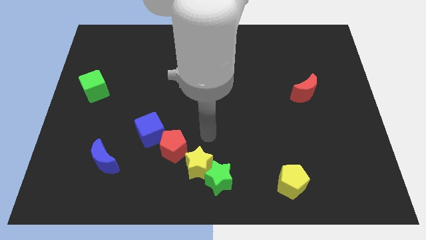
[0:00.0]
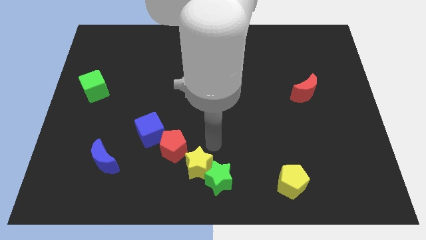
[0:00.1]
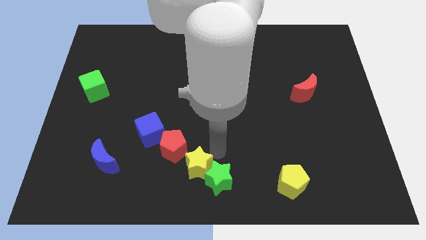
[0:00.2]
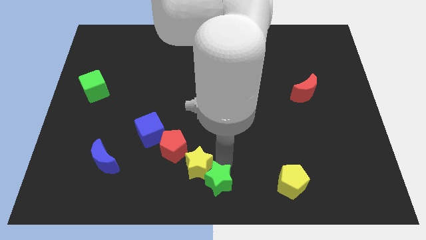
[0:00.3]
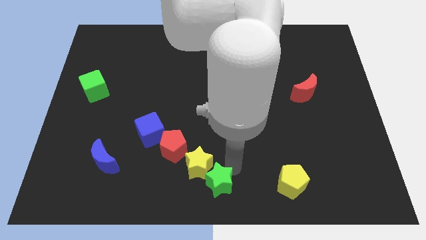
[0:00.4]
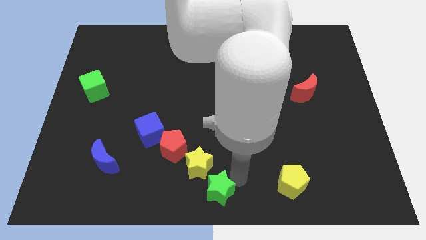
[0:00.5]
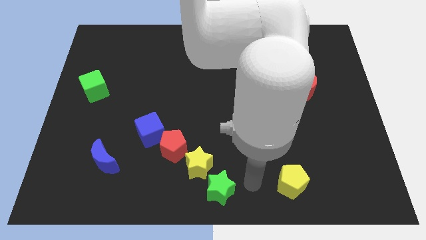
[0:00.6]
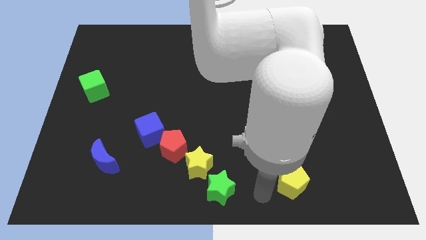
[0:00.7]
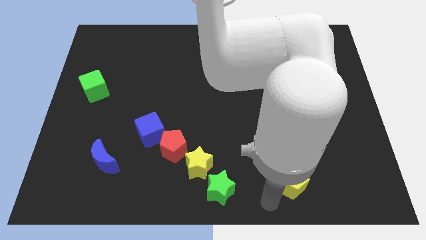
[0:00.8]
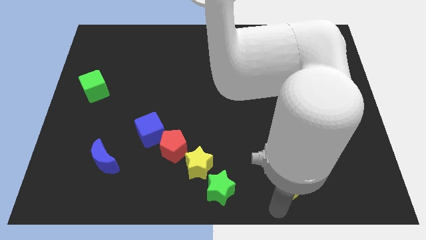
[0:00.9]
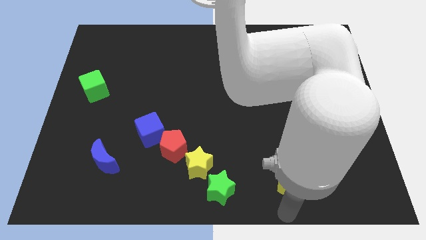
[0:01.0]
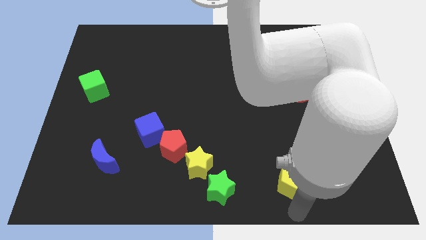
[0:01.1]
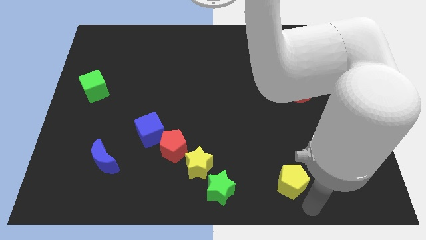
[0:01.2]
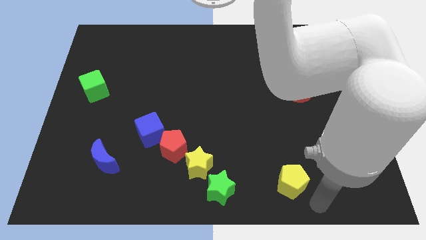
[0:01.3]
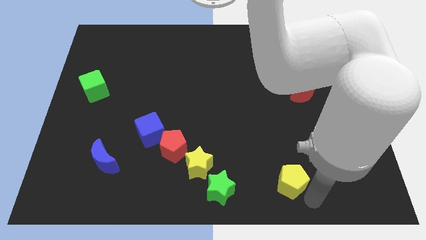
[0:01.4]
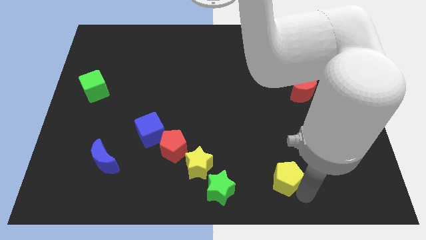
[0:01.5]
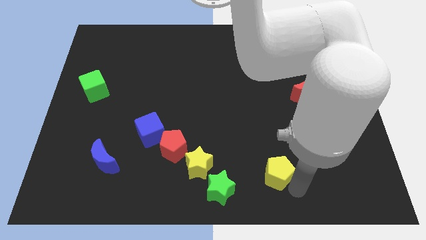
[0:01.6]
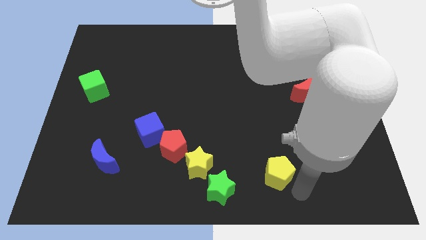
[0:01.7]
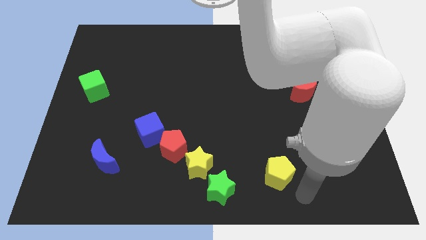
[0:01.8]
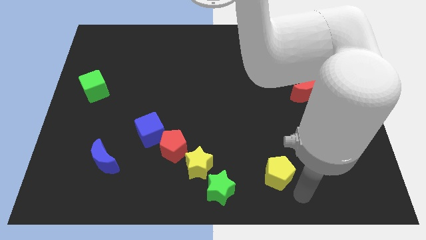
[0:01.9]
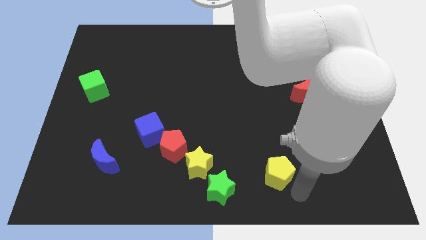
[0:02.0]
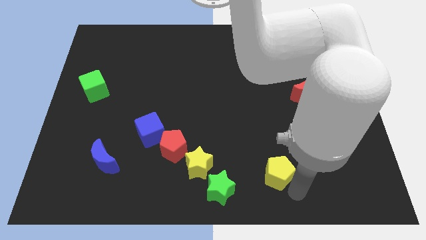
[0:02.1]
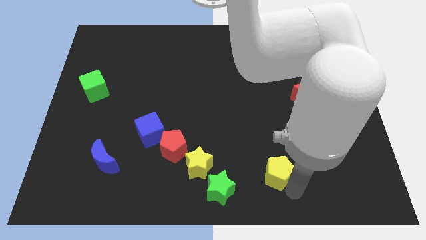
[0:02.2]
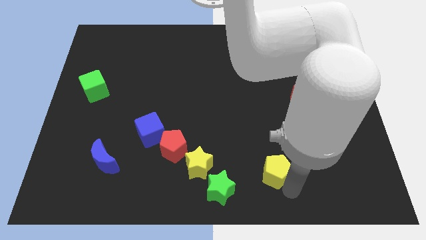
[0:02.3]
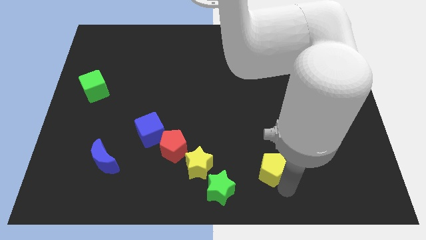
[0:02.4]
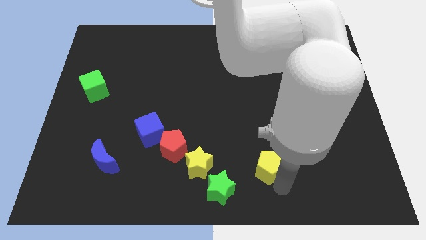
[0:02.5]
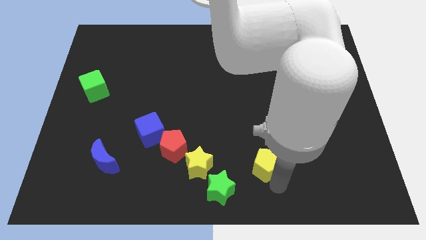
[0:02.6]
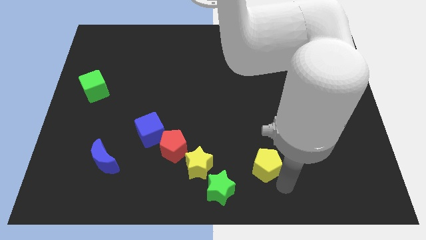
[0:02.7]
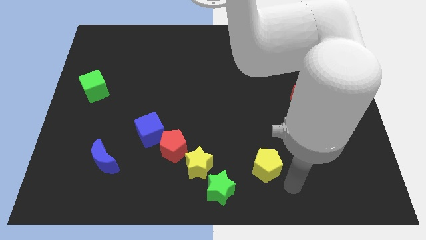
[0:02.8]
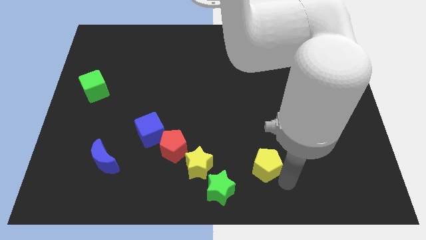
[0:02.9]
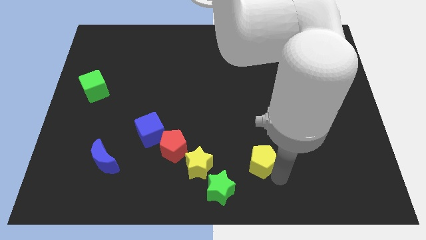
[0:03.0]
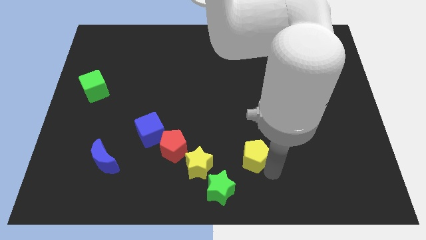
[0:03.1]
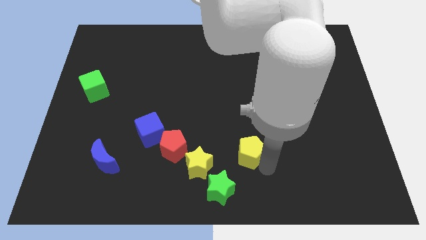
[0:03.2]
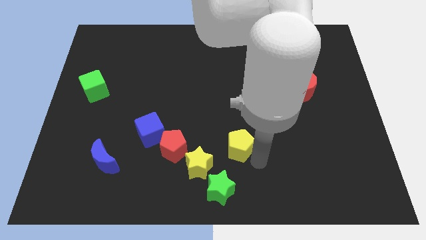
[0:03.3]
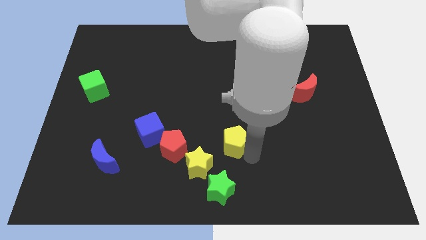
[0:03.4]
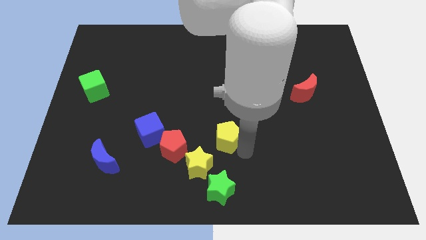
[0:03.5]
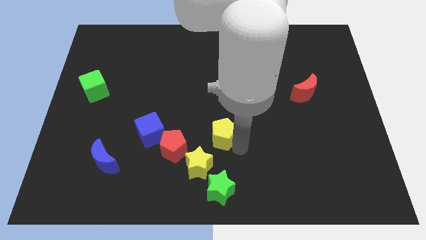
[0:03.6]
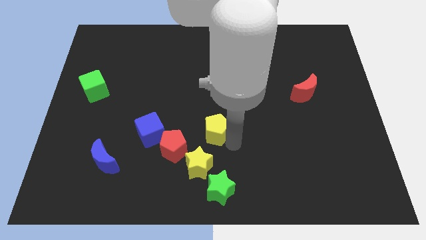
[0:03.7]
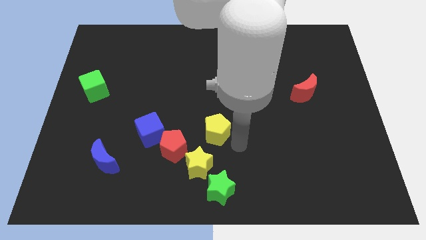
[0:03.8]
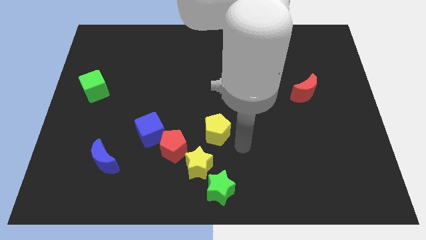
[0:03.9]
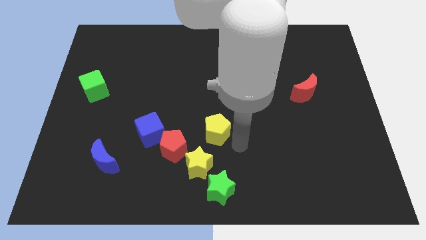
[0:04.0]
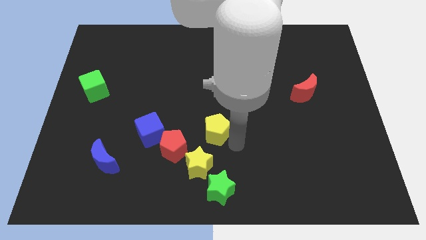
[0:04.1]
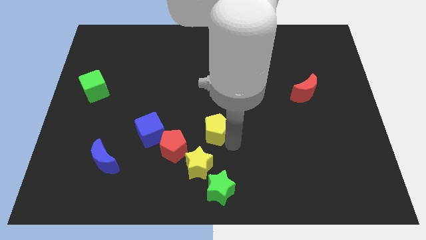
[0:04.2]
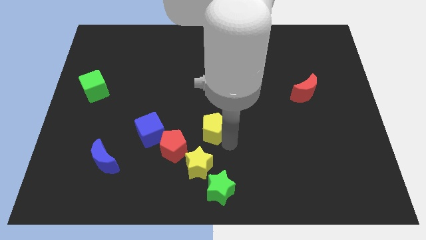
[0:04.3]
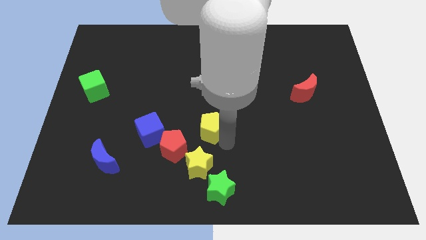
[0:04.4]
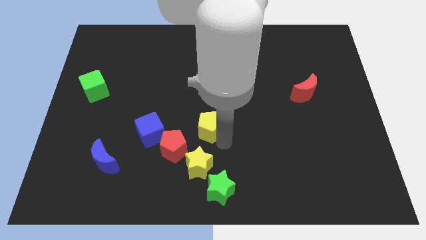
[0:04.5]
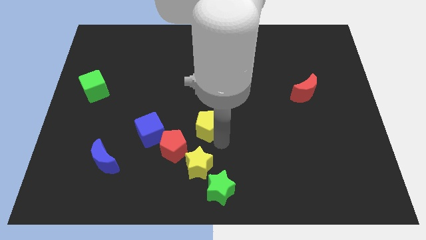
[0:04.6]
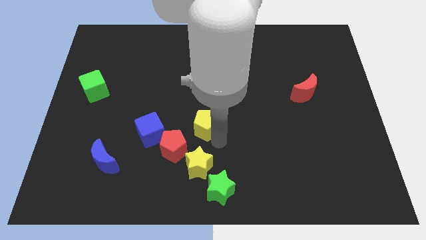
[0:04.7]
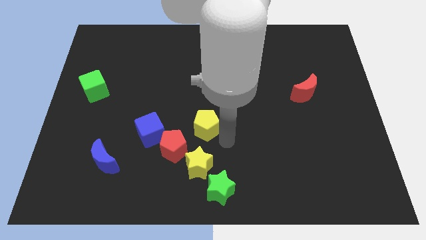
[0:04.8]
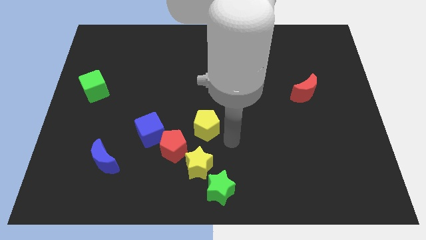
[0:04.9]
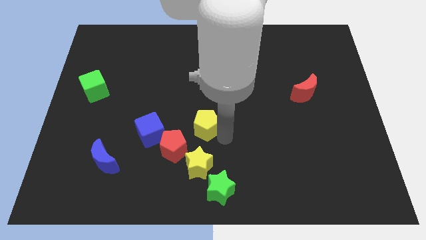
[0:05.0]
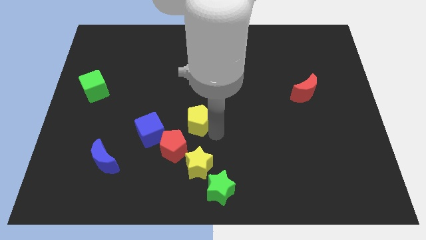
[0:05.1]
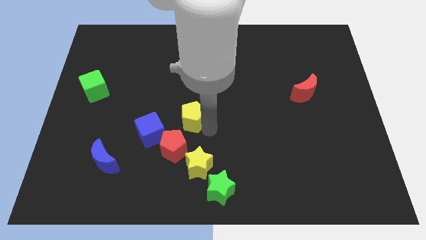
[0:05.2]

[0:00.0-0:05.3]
put the yellow pentagon to the top right of the blue cube

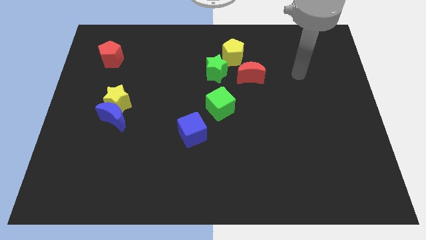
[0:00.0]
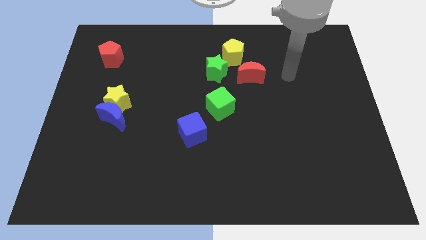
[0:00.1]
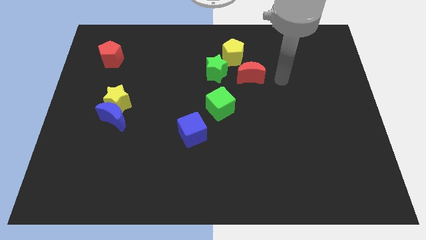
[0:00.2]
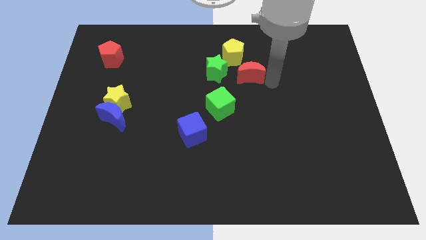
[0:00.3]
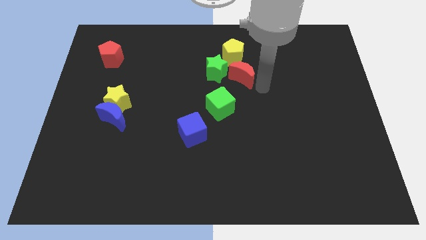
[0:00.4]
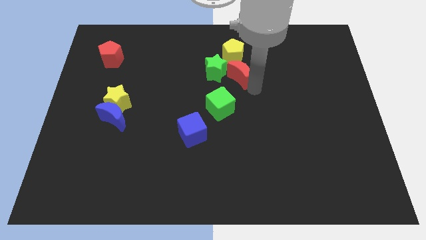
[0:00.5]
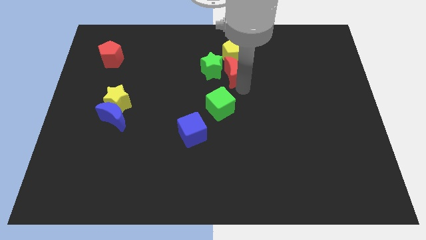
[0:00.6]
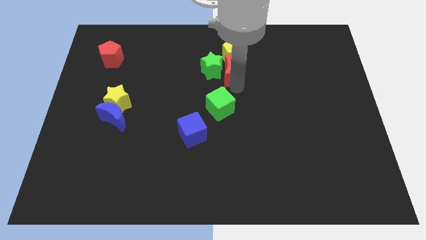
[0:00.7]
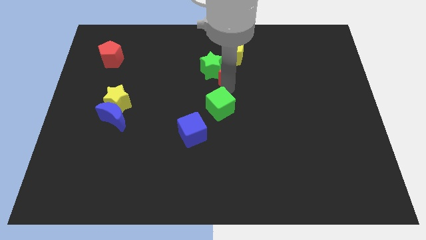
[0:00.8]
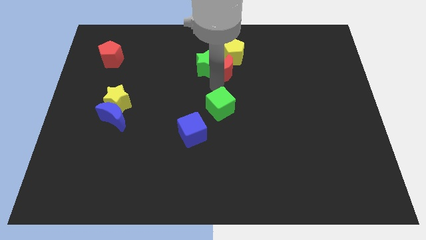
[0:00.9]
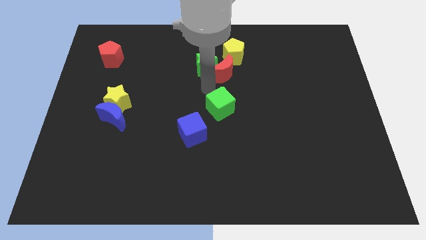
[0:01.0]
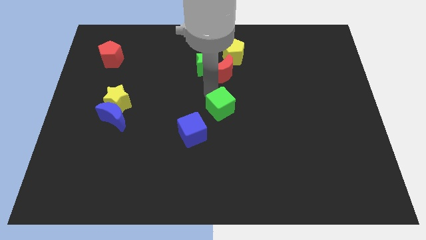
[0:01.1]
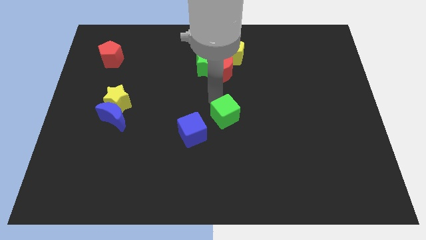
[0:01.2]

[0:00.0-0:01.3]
slide the green cube to the right side of the blue cube

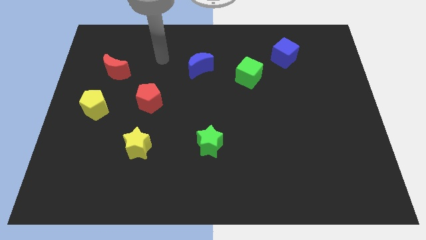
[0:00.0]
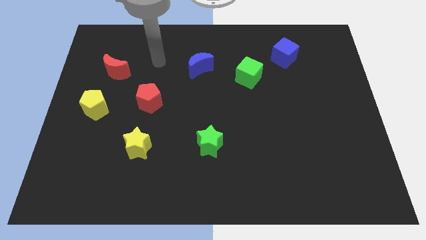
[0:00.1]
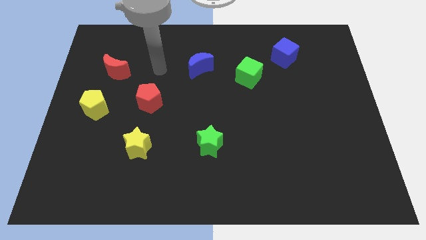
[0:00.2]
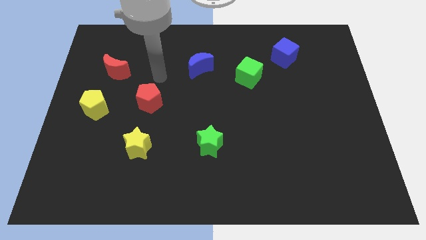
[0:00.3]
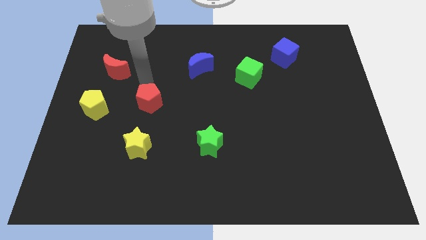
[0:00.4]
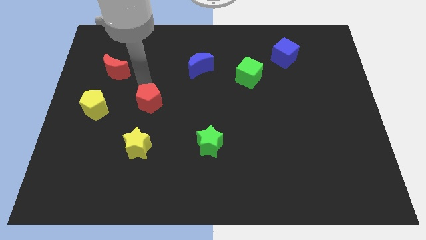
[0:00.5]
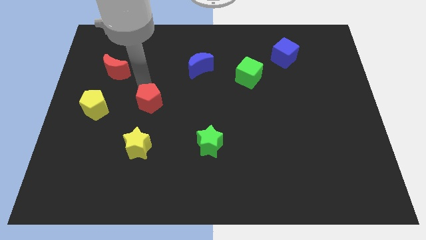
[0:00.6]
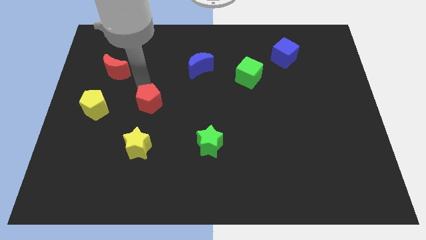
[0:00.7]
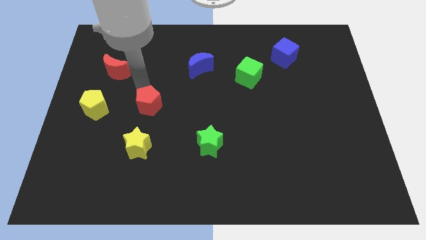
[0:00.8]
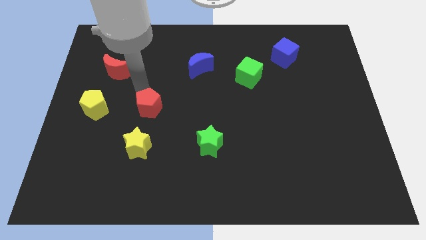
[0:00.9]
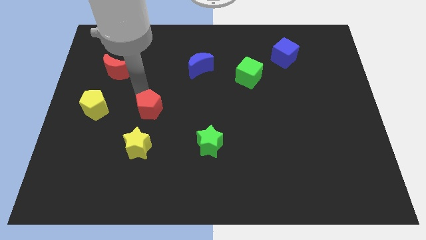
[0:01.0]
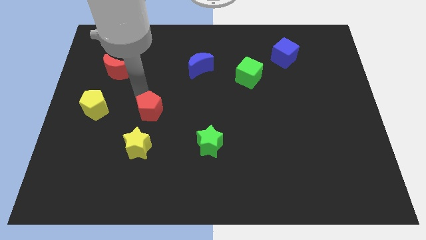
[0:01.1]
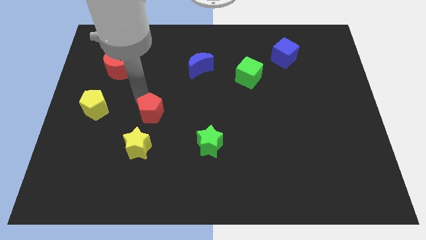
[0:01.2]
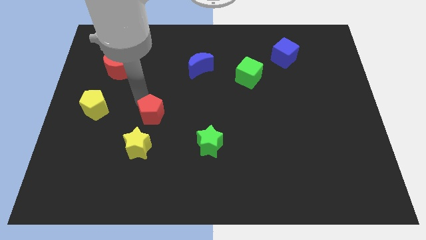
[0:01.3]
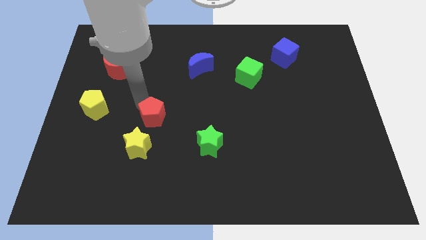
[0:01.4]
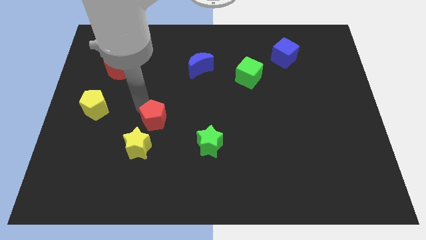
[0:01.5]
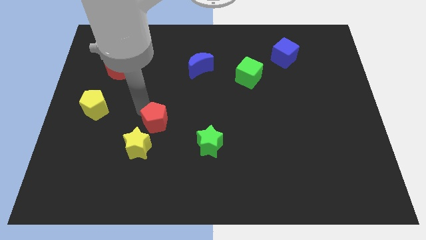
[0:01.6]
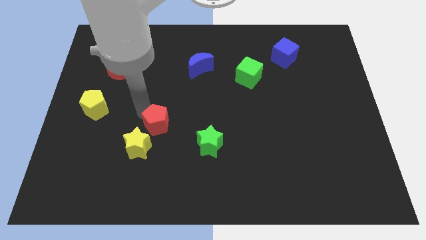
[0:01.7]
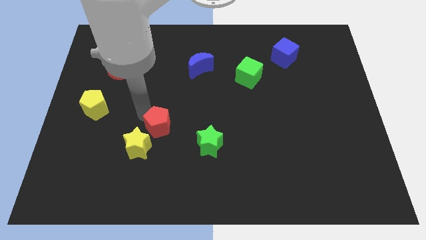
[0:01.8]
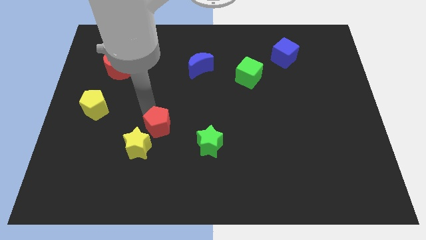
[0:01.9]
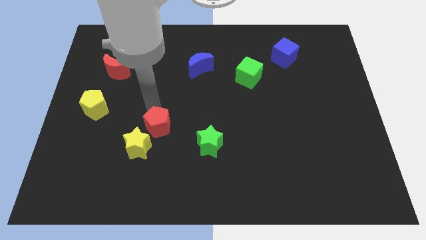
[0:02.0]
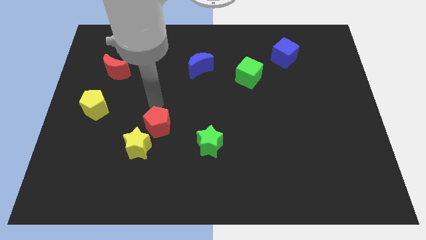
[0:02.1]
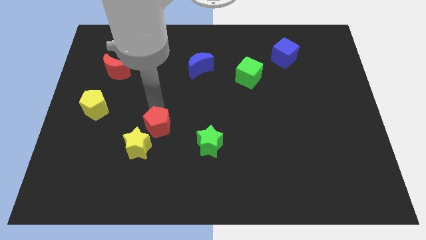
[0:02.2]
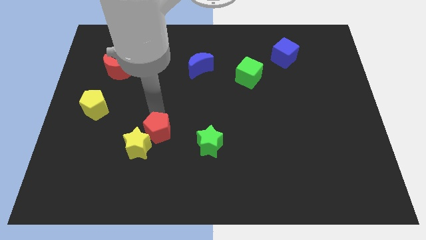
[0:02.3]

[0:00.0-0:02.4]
push the red pentagon left of the green star
